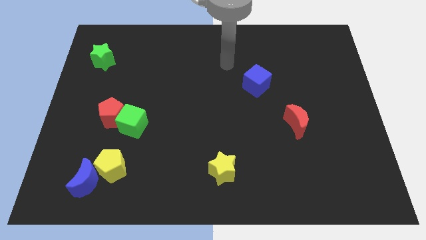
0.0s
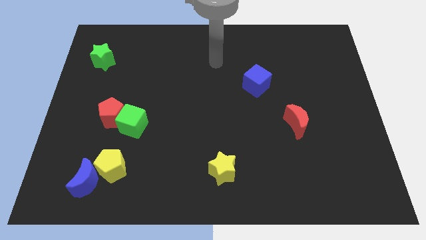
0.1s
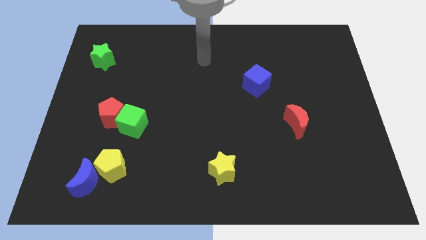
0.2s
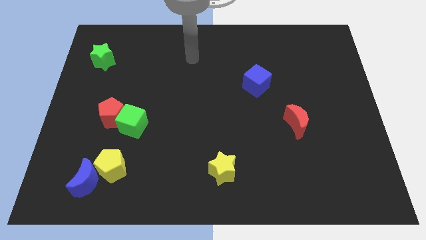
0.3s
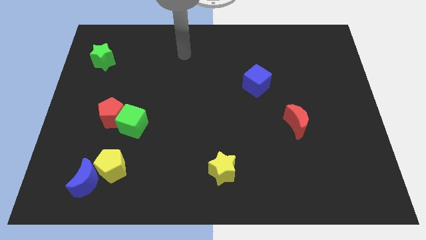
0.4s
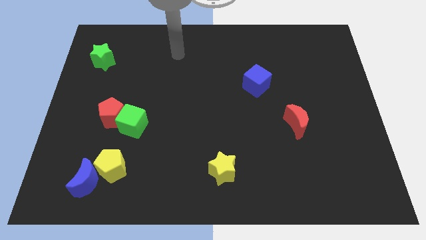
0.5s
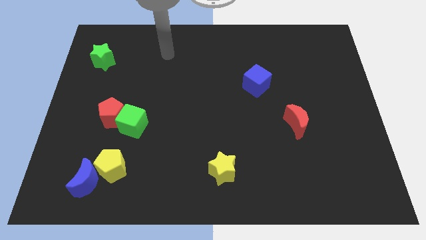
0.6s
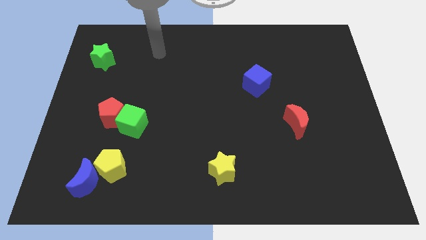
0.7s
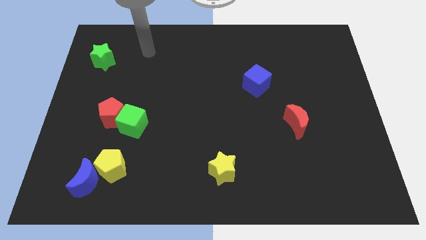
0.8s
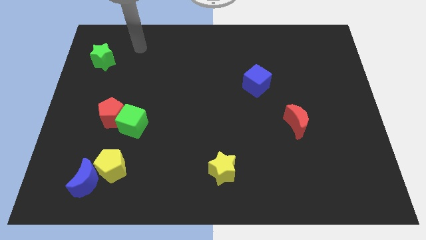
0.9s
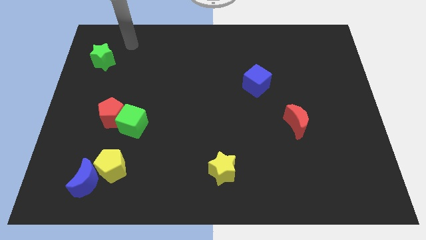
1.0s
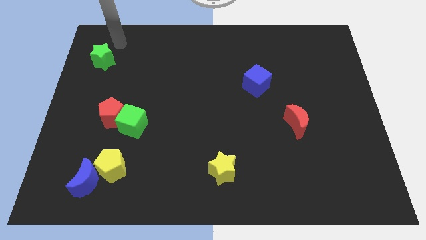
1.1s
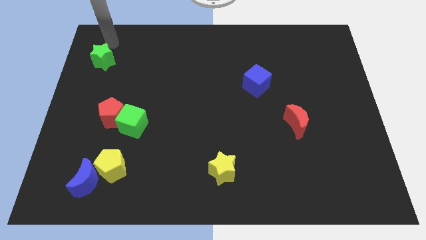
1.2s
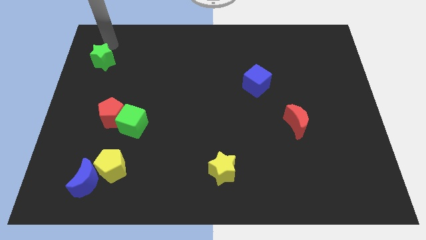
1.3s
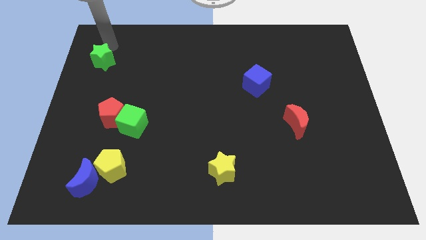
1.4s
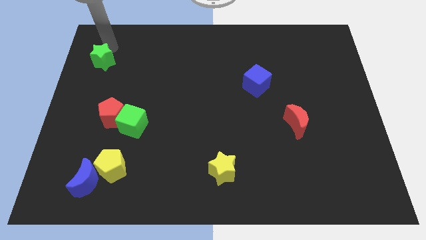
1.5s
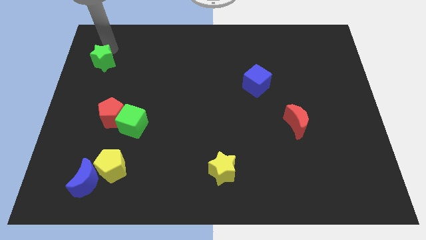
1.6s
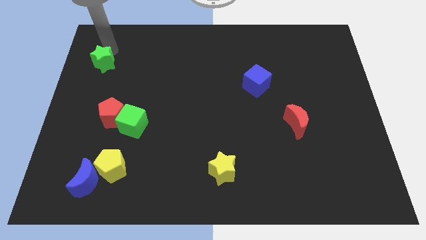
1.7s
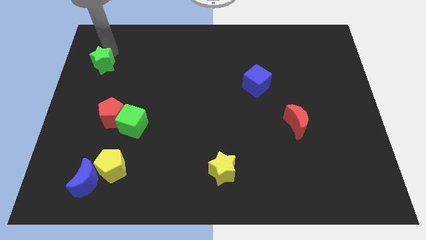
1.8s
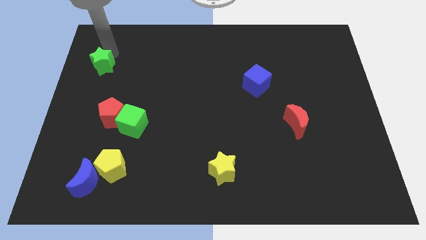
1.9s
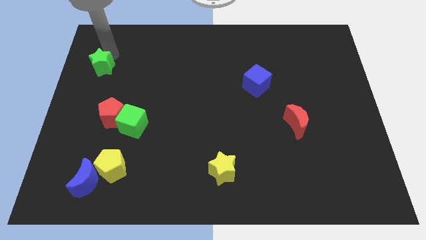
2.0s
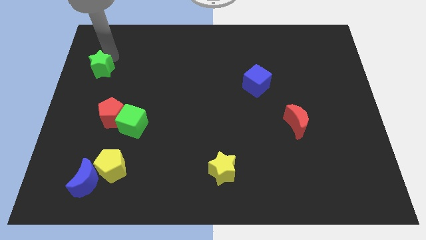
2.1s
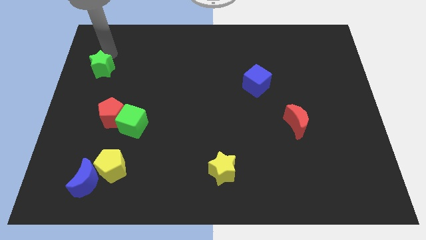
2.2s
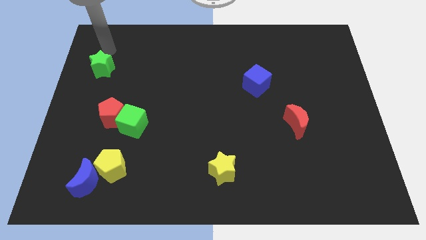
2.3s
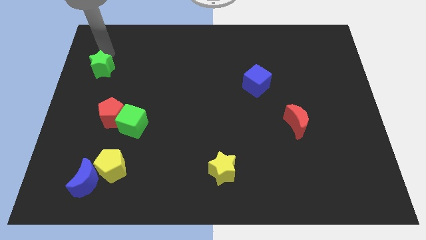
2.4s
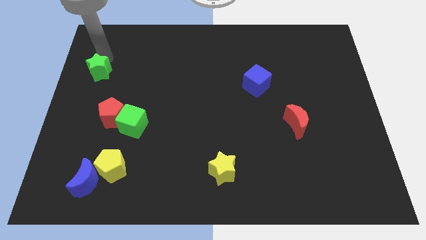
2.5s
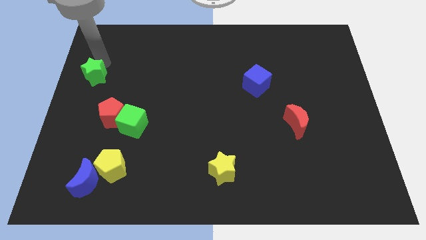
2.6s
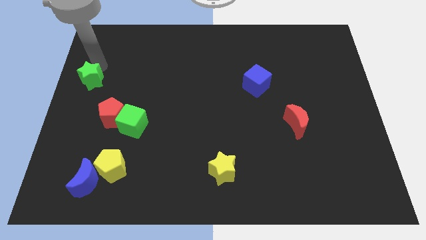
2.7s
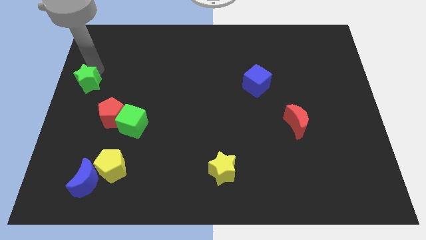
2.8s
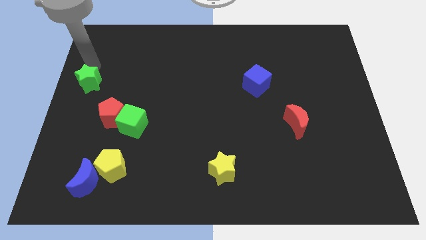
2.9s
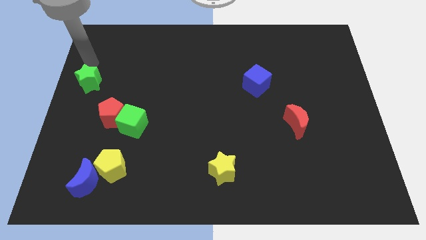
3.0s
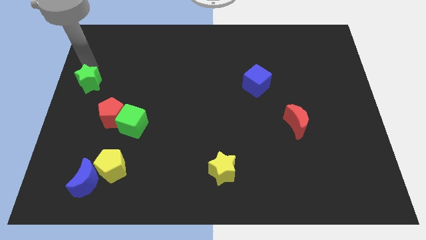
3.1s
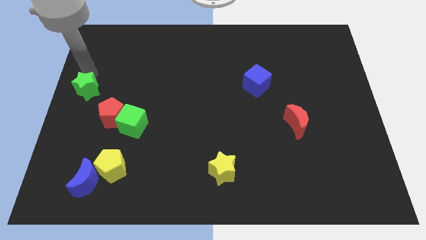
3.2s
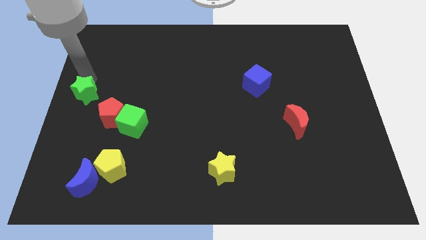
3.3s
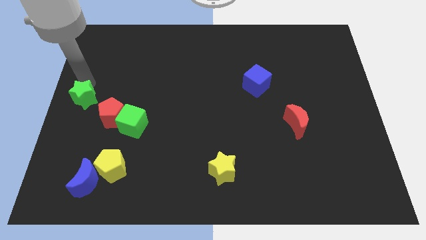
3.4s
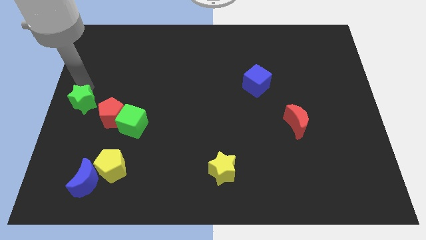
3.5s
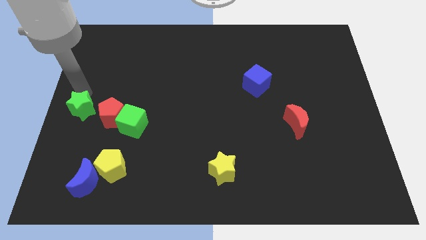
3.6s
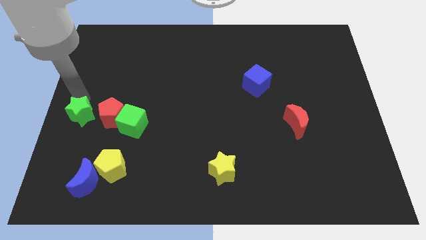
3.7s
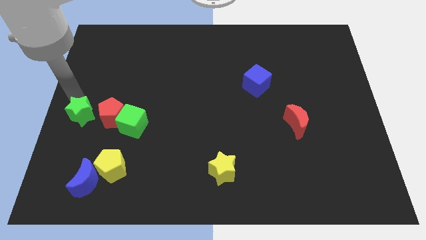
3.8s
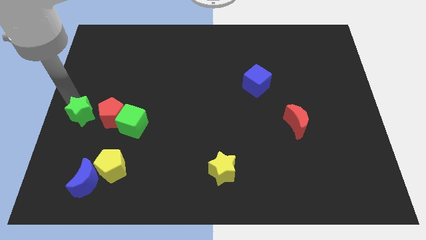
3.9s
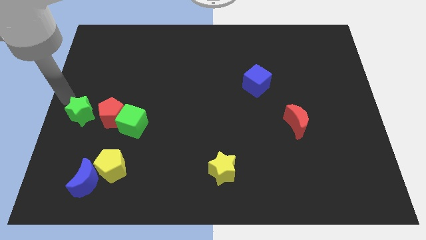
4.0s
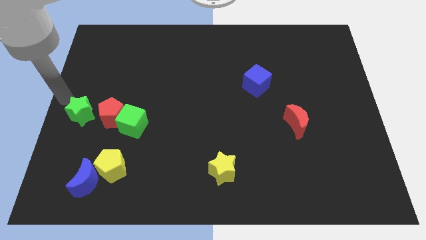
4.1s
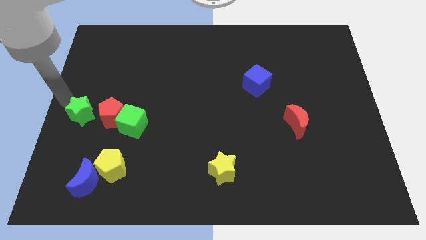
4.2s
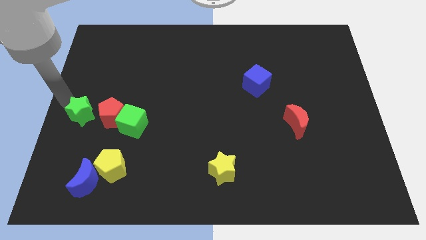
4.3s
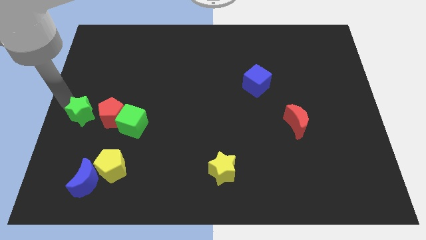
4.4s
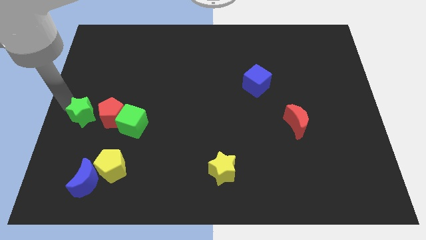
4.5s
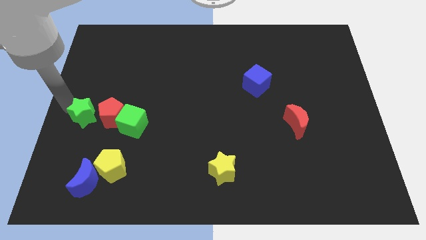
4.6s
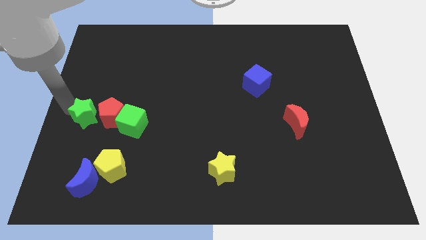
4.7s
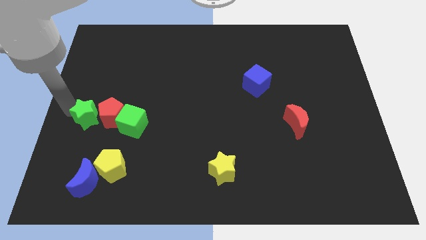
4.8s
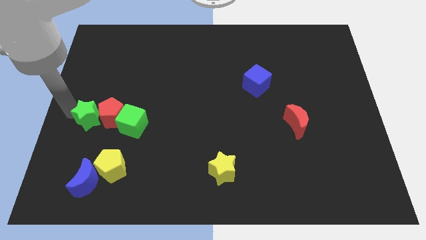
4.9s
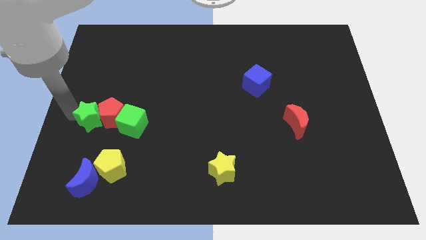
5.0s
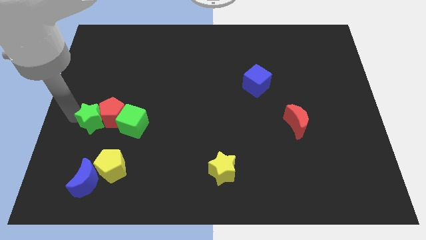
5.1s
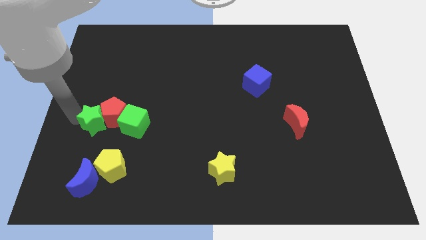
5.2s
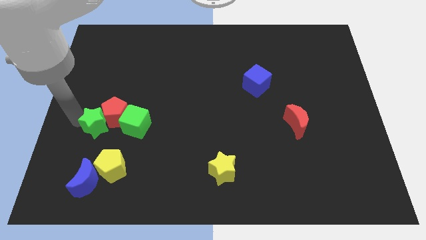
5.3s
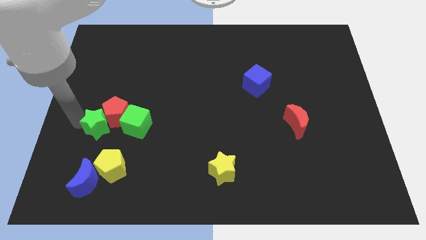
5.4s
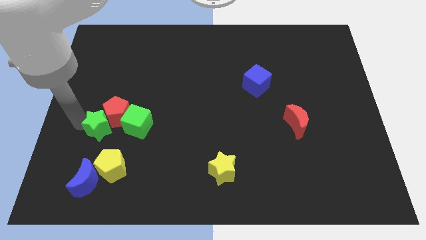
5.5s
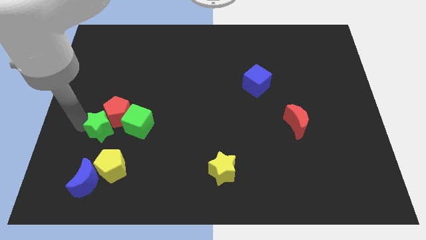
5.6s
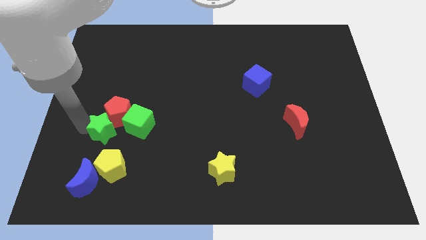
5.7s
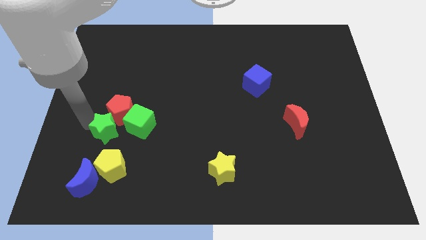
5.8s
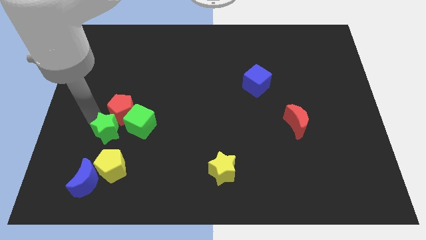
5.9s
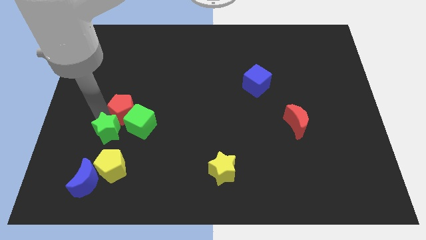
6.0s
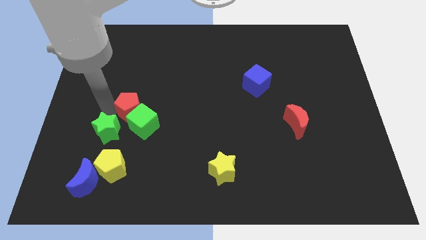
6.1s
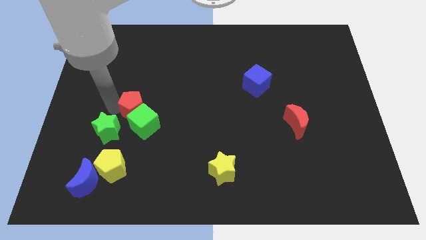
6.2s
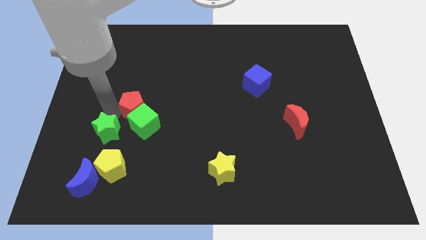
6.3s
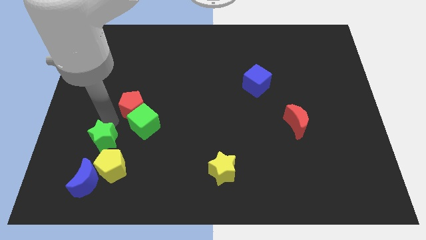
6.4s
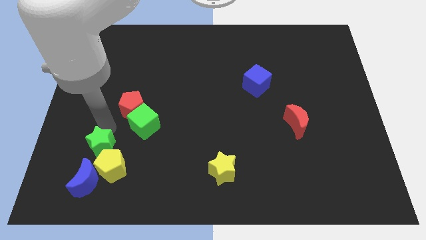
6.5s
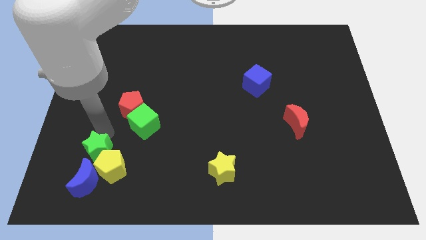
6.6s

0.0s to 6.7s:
push the green star close to the yellow pentagon

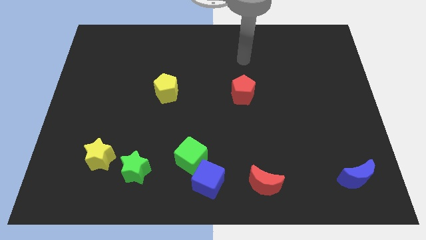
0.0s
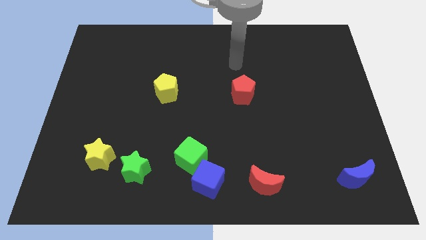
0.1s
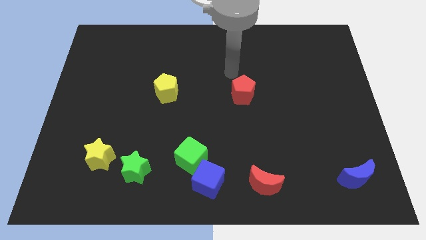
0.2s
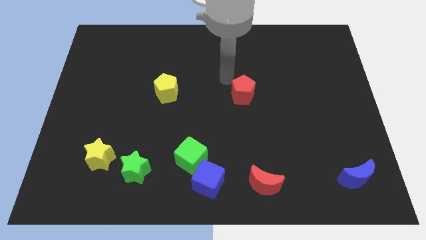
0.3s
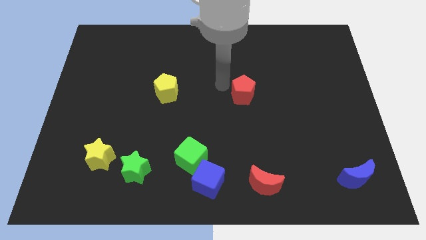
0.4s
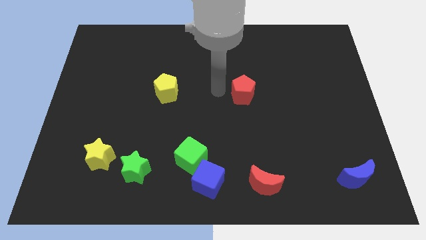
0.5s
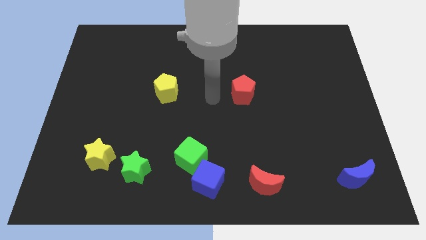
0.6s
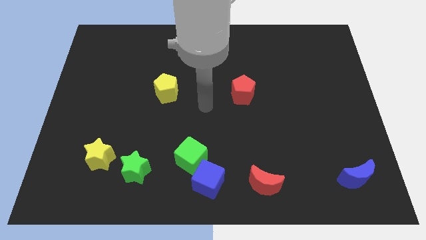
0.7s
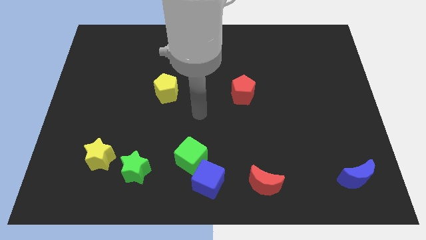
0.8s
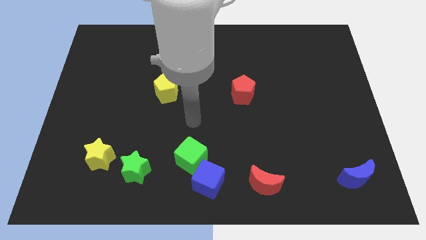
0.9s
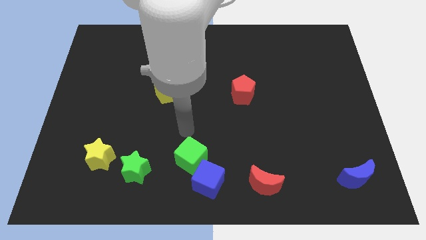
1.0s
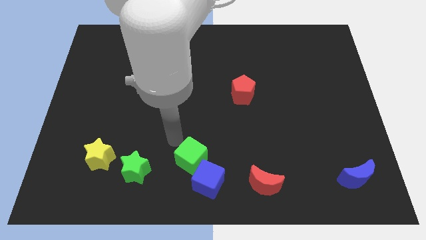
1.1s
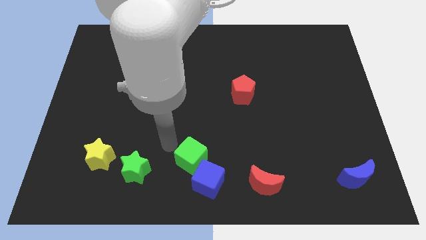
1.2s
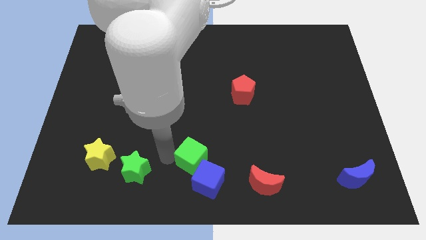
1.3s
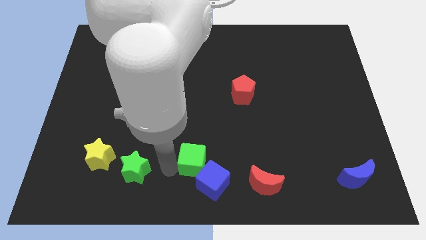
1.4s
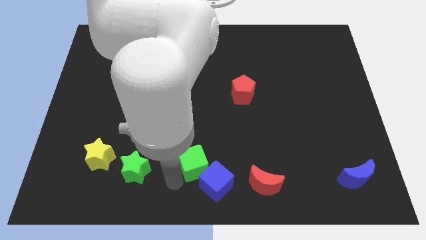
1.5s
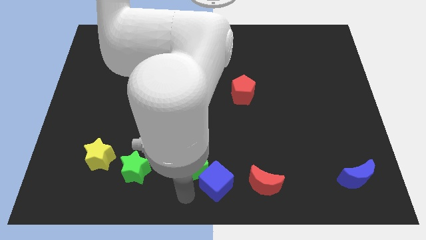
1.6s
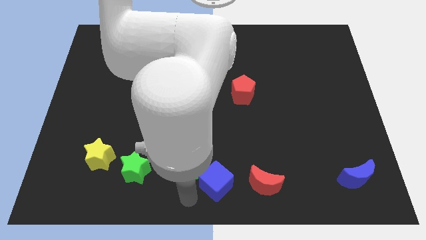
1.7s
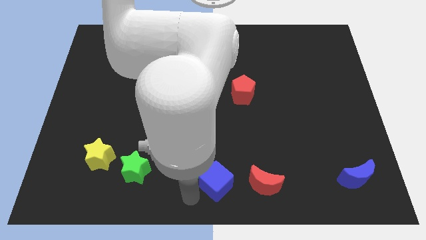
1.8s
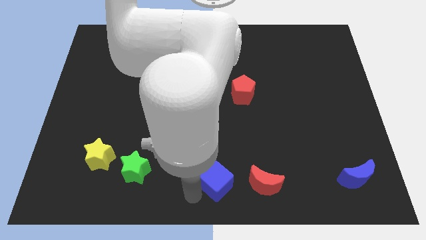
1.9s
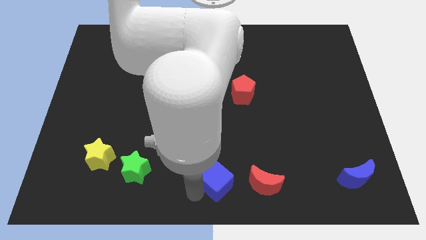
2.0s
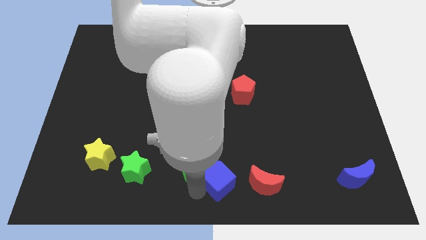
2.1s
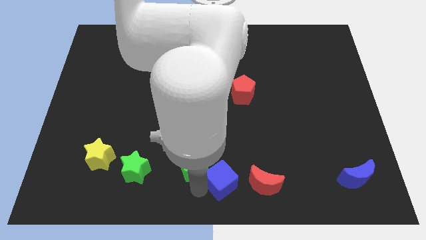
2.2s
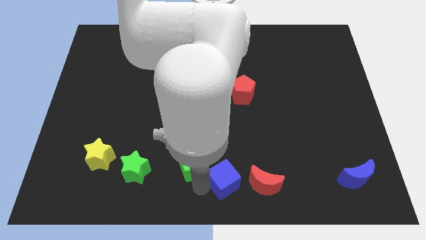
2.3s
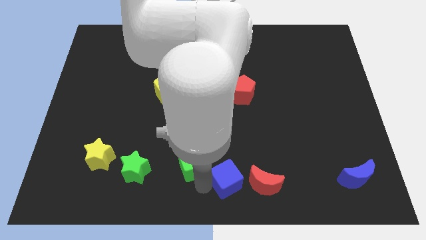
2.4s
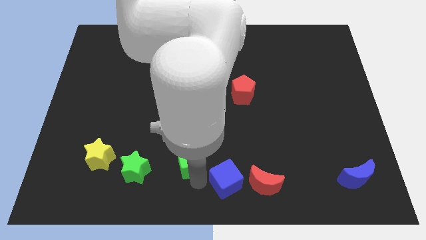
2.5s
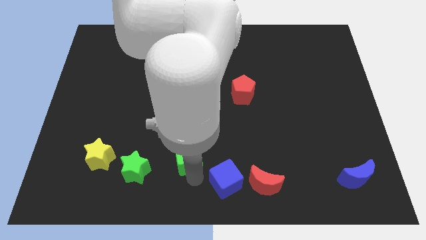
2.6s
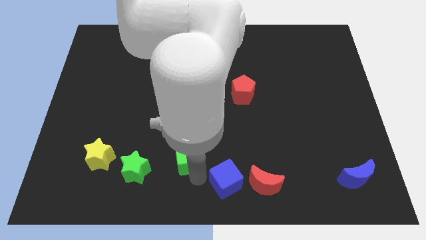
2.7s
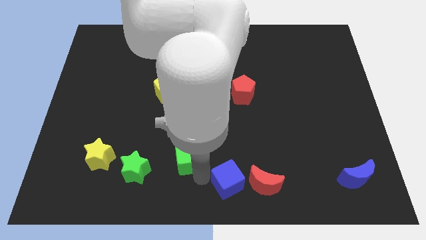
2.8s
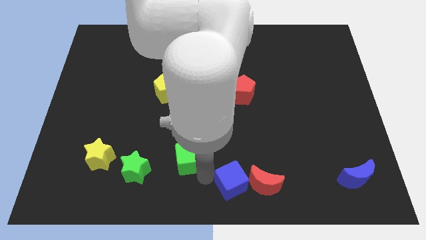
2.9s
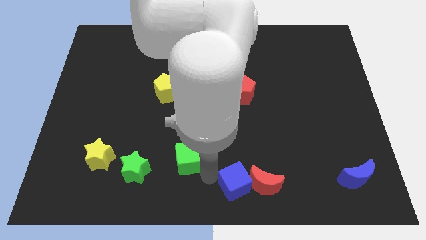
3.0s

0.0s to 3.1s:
push the blue cube towards the red moon
